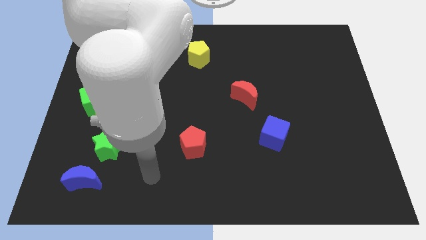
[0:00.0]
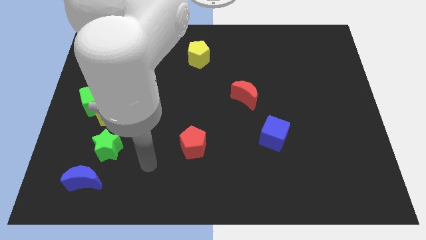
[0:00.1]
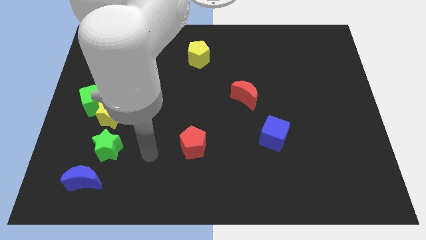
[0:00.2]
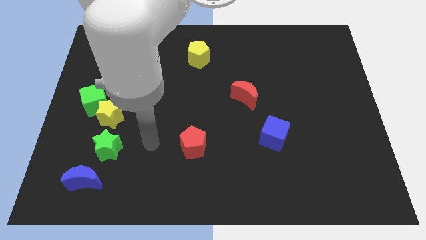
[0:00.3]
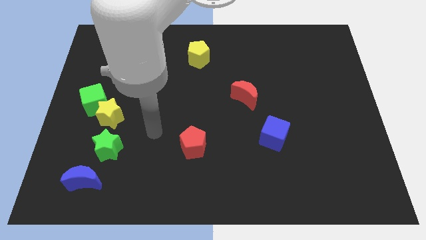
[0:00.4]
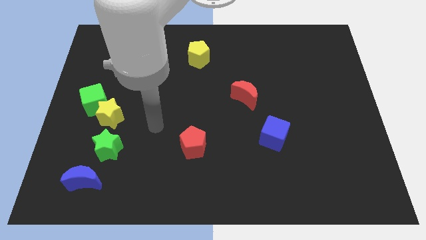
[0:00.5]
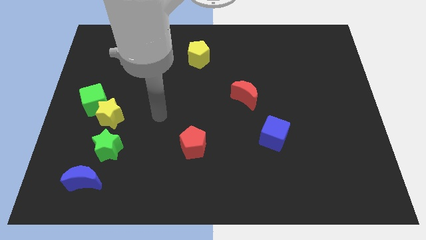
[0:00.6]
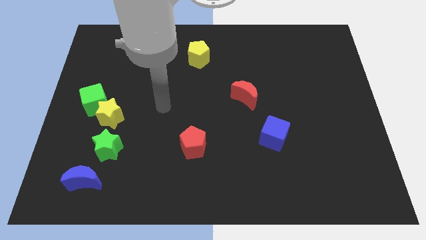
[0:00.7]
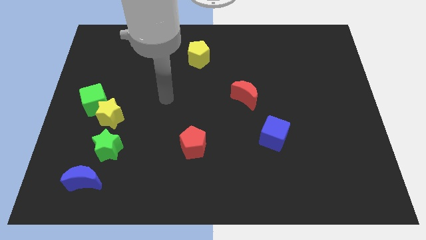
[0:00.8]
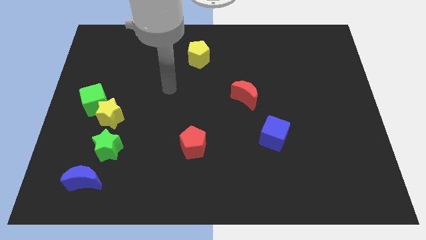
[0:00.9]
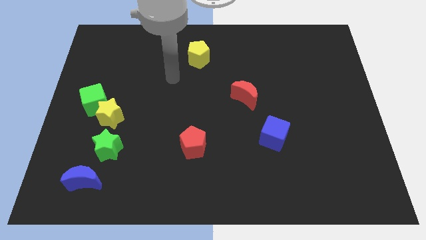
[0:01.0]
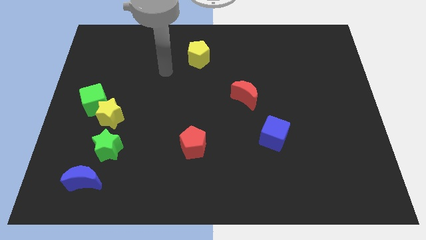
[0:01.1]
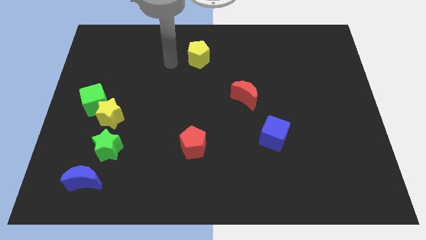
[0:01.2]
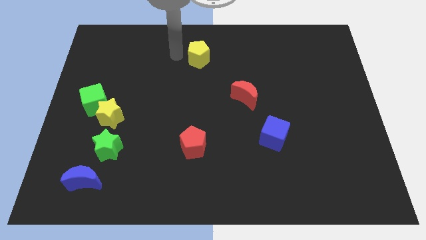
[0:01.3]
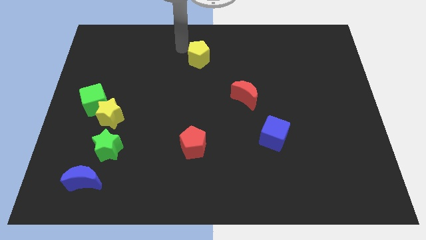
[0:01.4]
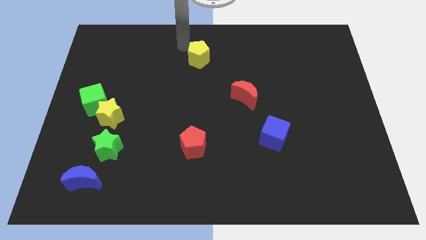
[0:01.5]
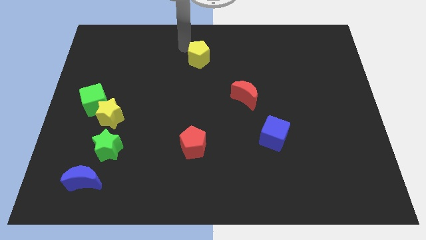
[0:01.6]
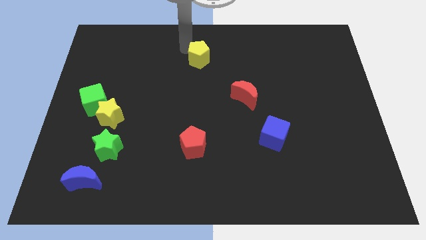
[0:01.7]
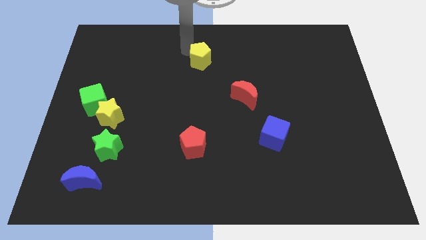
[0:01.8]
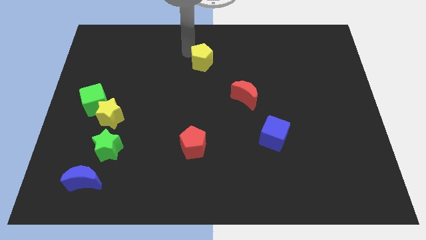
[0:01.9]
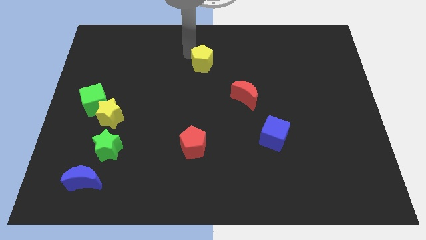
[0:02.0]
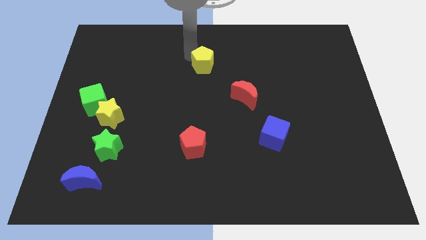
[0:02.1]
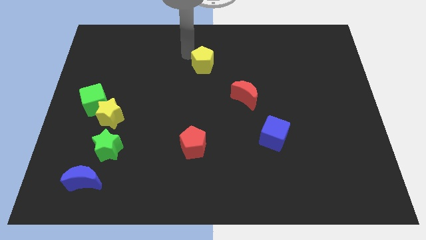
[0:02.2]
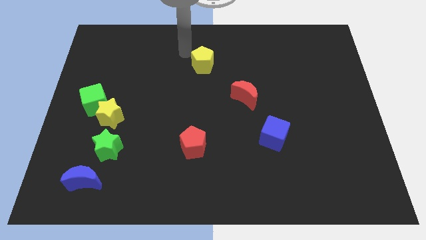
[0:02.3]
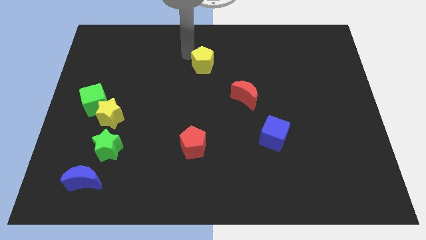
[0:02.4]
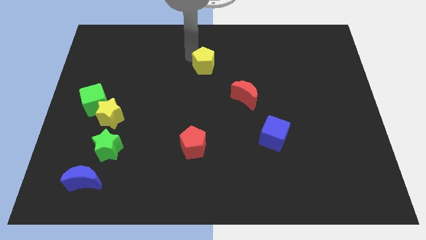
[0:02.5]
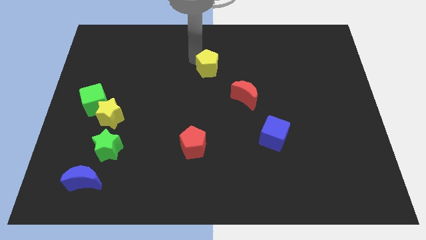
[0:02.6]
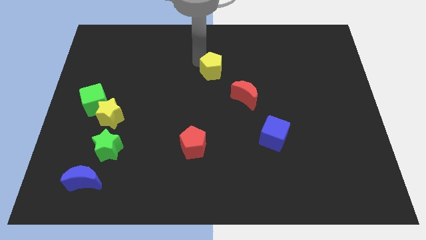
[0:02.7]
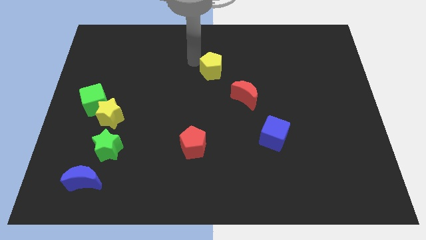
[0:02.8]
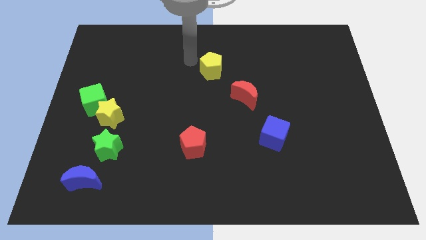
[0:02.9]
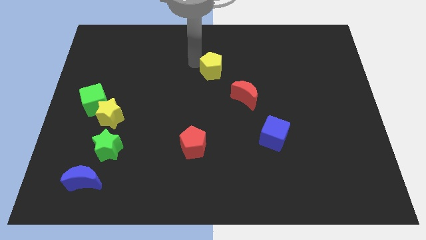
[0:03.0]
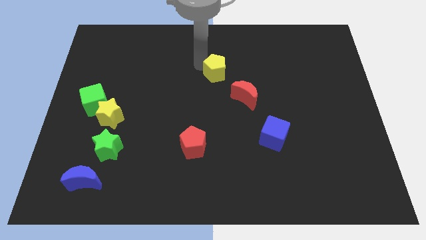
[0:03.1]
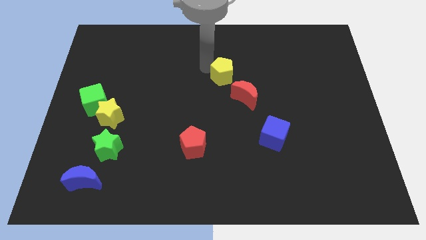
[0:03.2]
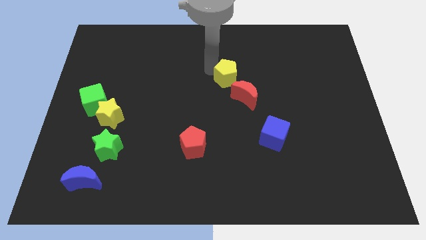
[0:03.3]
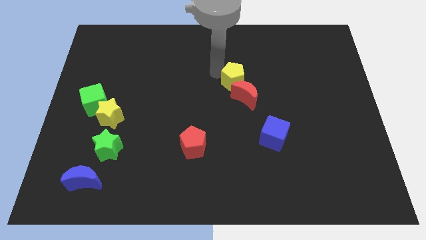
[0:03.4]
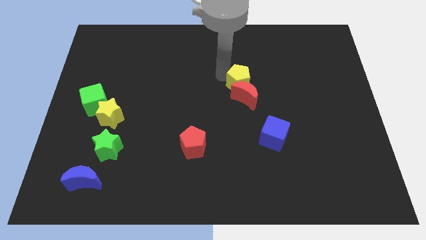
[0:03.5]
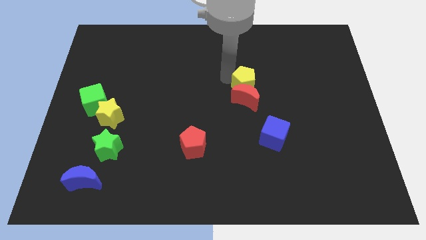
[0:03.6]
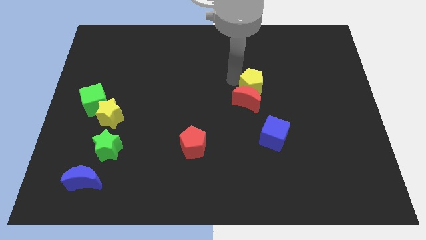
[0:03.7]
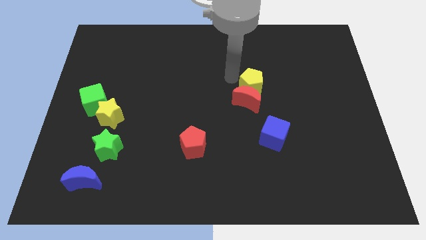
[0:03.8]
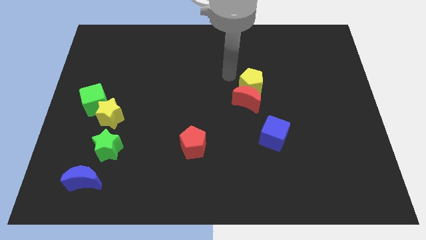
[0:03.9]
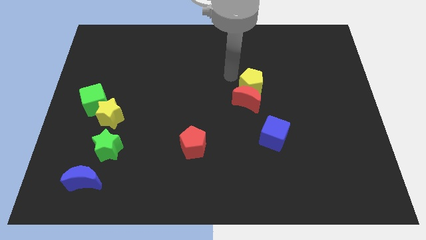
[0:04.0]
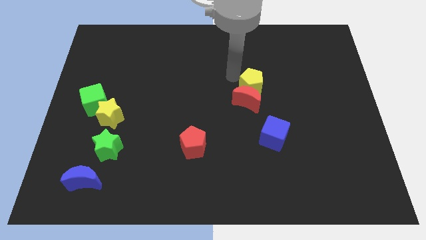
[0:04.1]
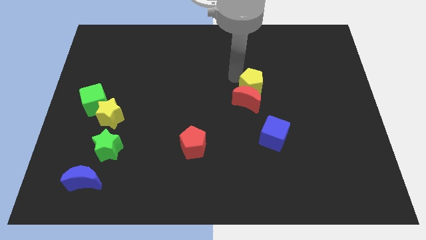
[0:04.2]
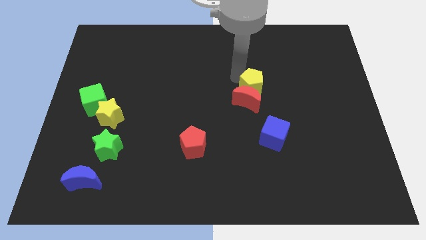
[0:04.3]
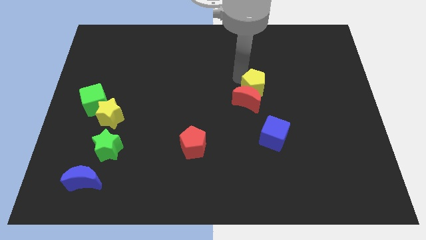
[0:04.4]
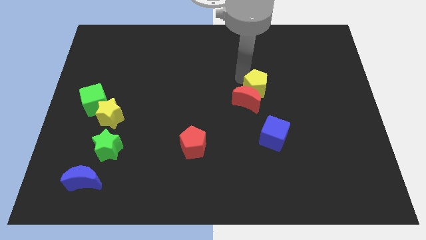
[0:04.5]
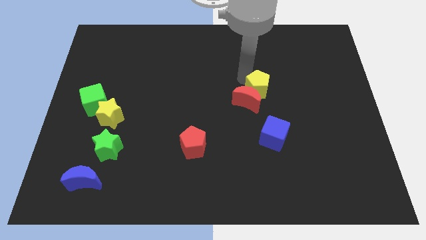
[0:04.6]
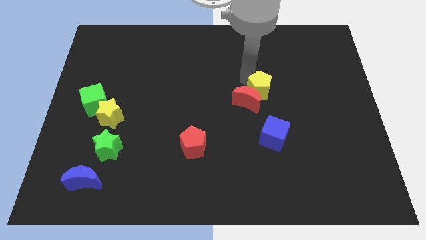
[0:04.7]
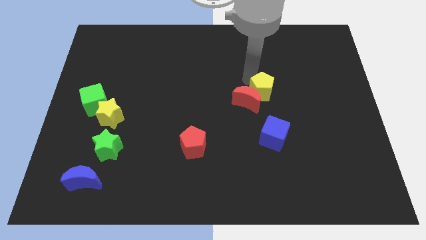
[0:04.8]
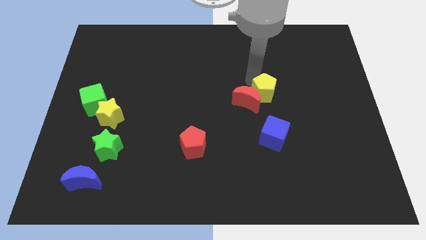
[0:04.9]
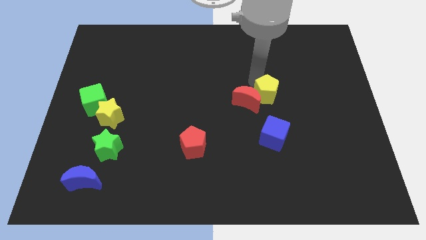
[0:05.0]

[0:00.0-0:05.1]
slide the yellow pentagon downwards and right

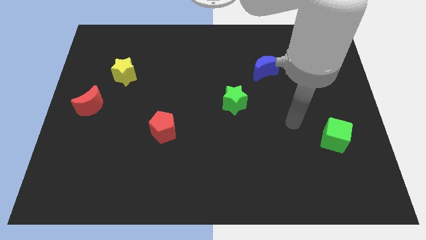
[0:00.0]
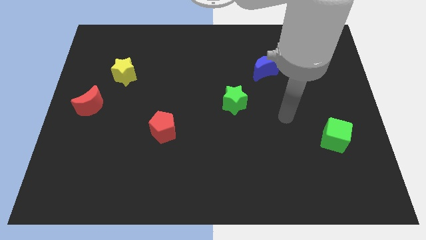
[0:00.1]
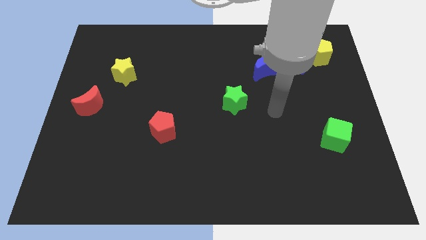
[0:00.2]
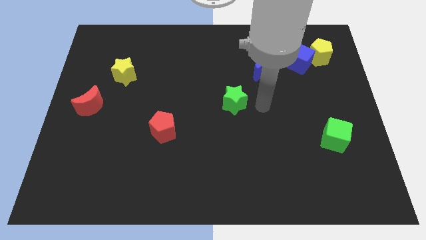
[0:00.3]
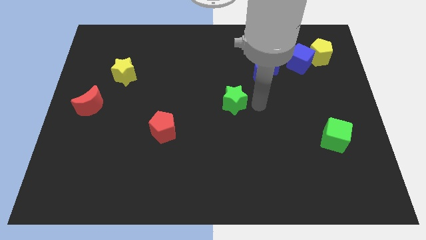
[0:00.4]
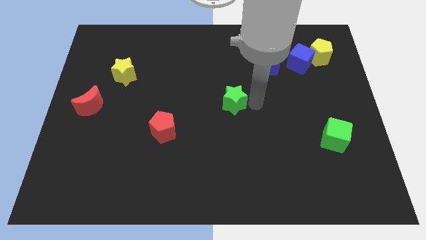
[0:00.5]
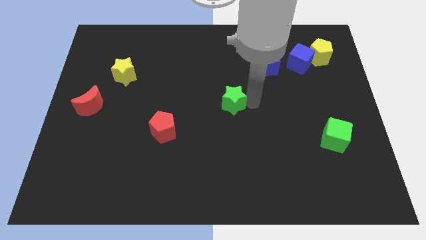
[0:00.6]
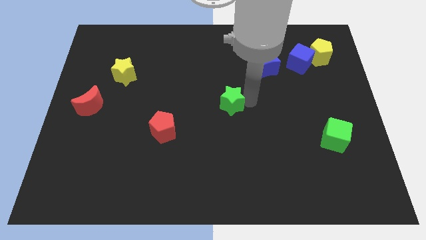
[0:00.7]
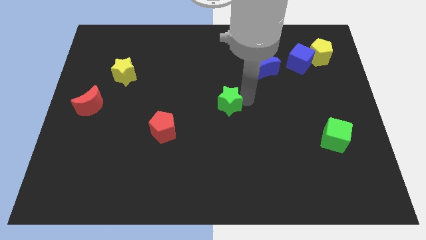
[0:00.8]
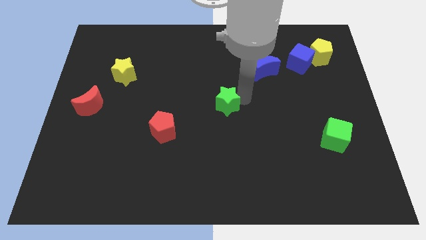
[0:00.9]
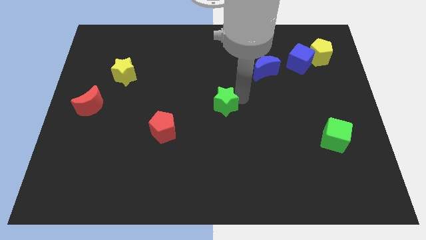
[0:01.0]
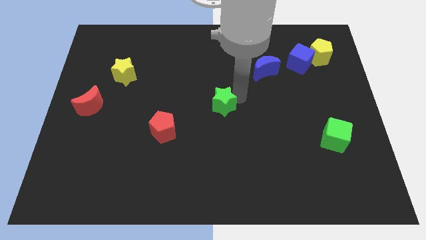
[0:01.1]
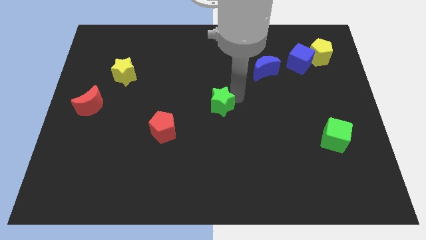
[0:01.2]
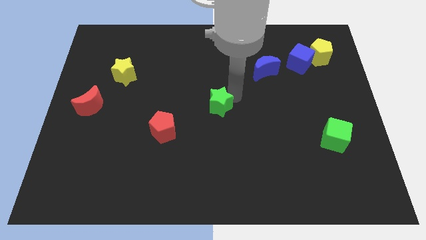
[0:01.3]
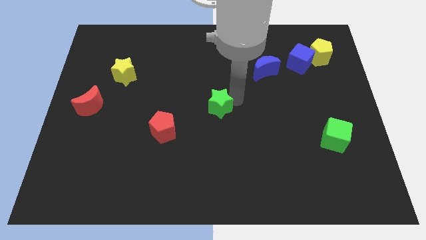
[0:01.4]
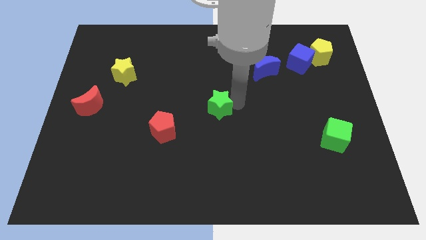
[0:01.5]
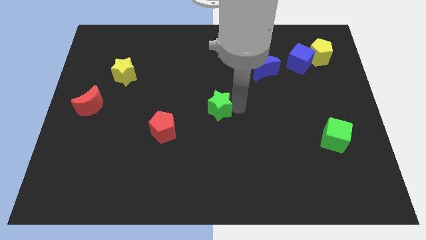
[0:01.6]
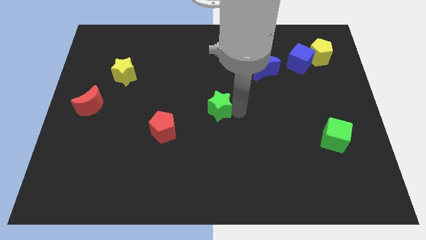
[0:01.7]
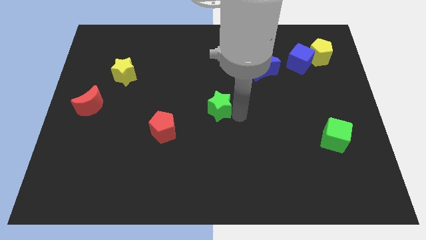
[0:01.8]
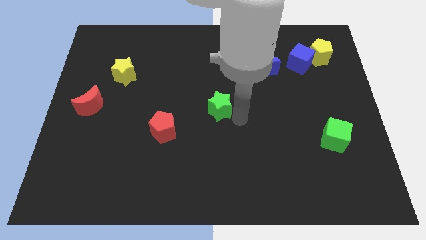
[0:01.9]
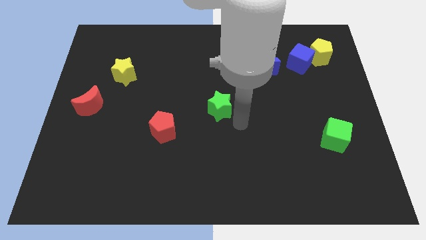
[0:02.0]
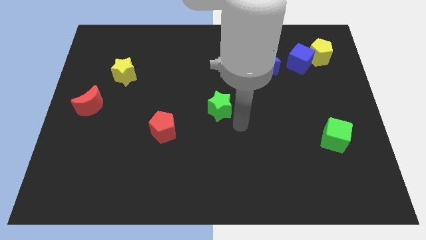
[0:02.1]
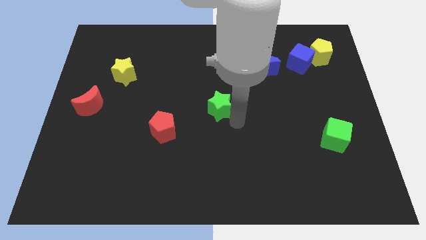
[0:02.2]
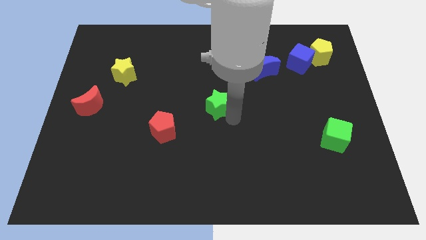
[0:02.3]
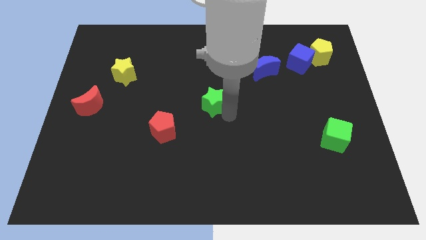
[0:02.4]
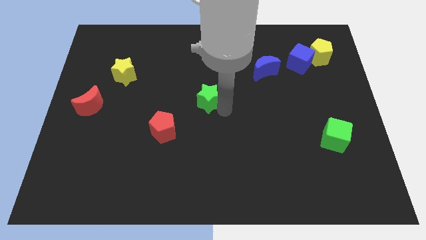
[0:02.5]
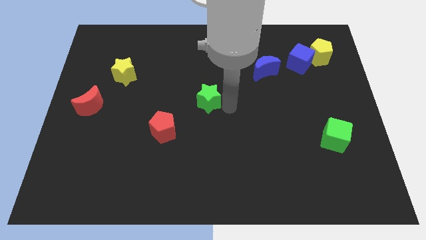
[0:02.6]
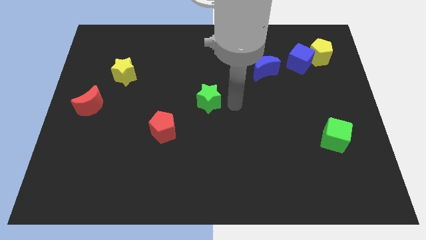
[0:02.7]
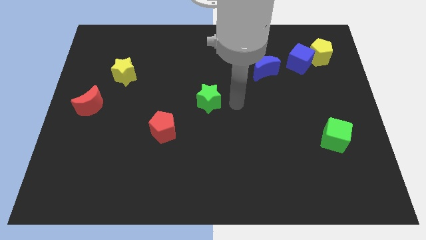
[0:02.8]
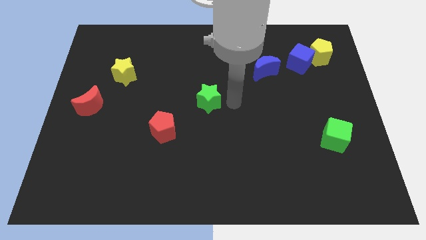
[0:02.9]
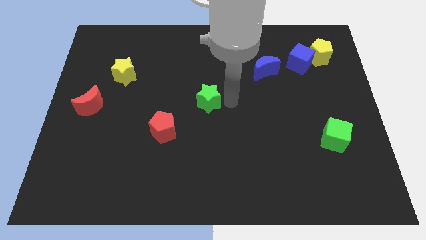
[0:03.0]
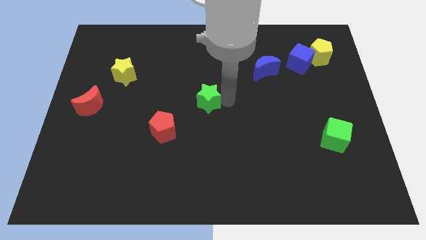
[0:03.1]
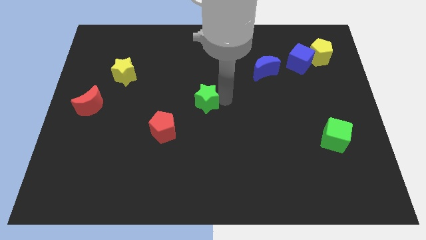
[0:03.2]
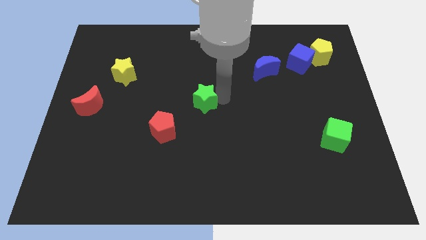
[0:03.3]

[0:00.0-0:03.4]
slide the green star a little bit left

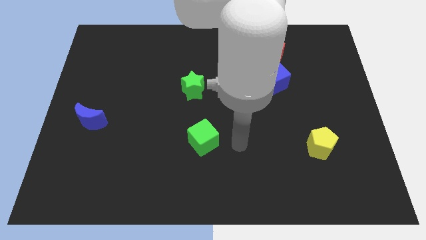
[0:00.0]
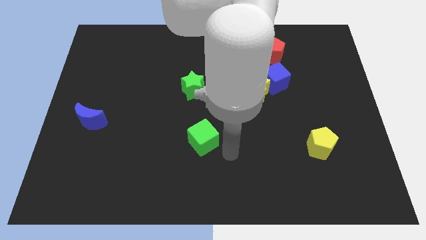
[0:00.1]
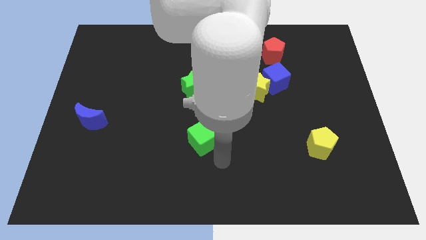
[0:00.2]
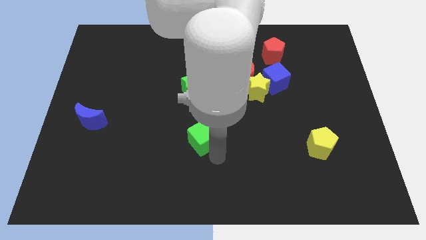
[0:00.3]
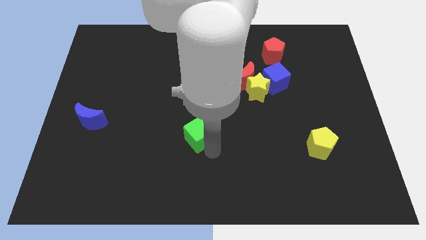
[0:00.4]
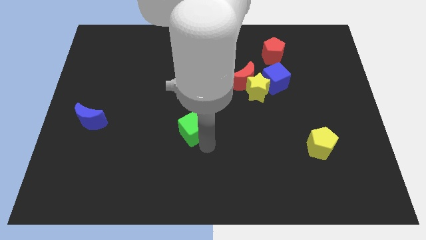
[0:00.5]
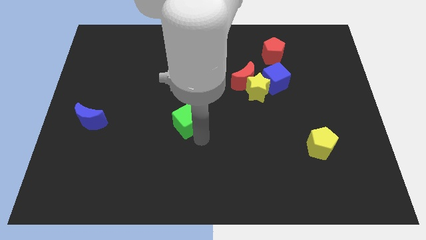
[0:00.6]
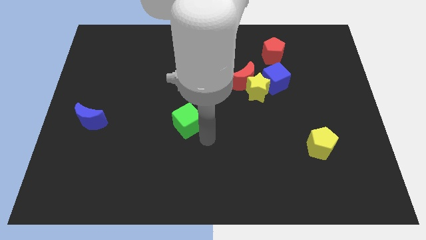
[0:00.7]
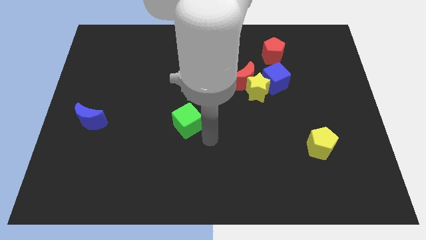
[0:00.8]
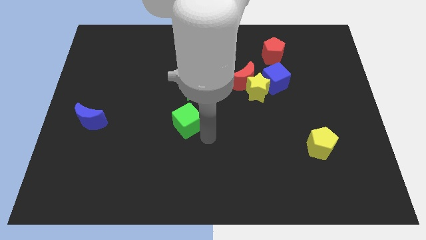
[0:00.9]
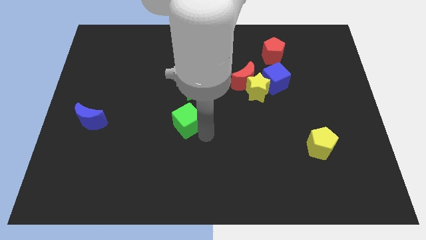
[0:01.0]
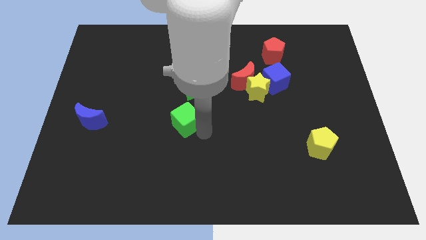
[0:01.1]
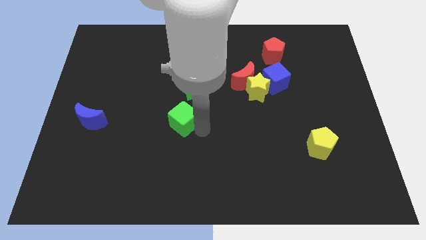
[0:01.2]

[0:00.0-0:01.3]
push the green cube upwards and then to the left a little bit
